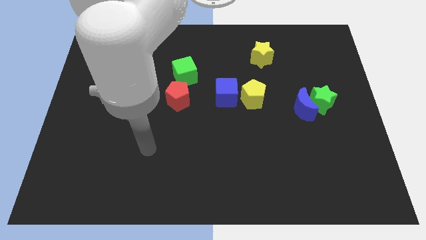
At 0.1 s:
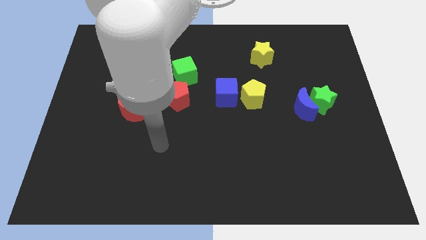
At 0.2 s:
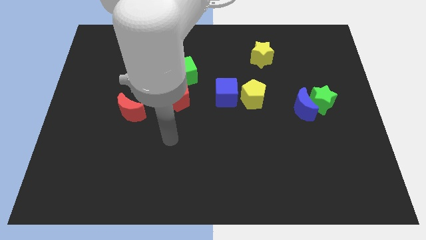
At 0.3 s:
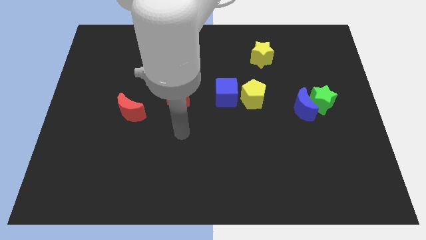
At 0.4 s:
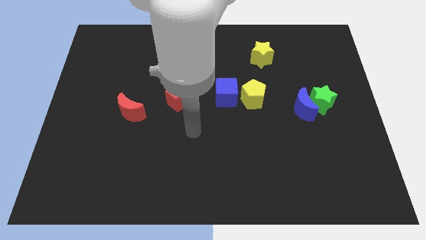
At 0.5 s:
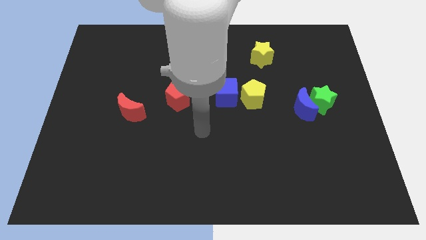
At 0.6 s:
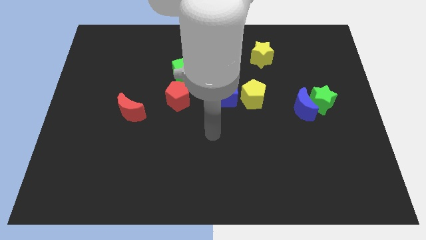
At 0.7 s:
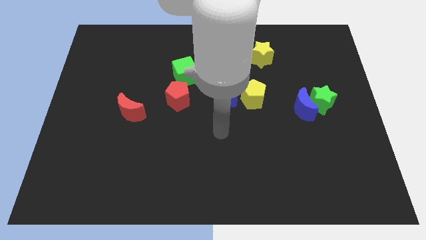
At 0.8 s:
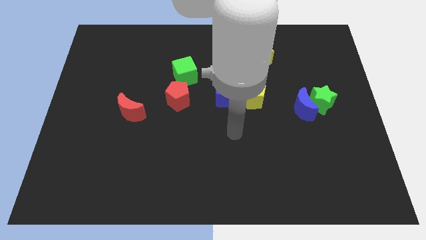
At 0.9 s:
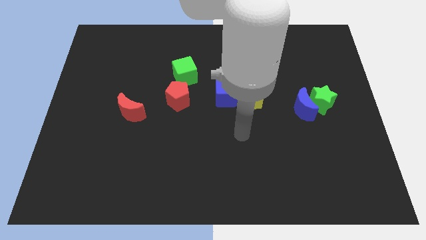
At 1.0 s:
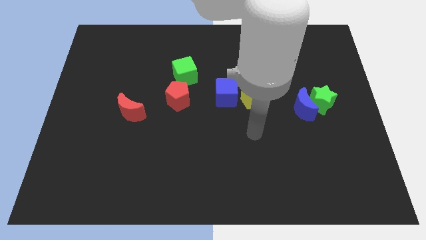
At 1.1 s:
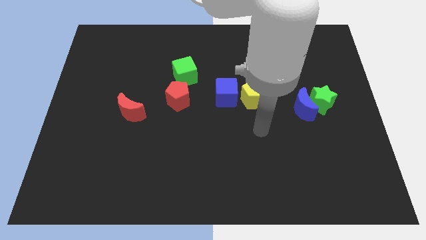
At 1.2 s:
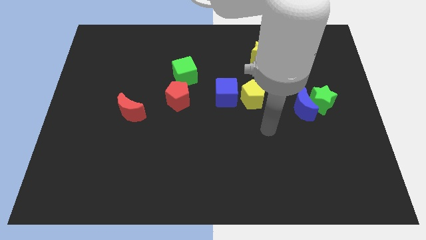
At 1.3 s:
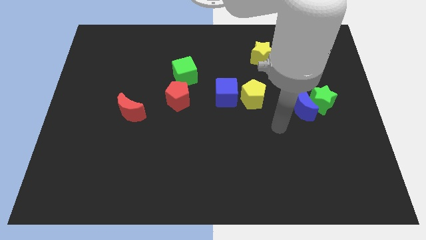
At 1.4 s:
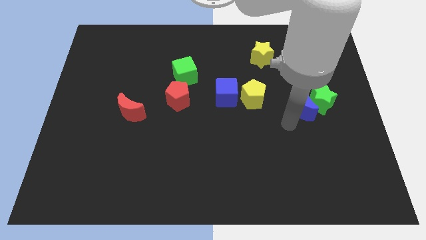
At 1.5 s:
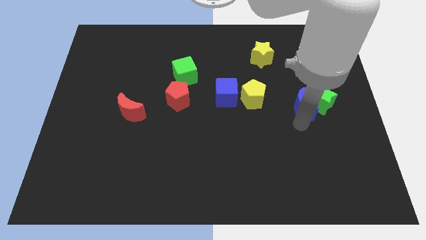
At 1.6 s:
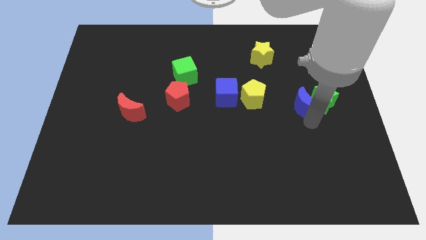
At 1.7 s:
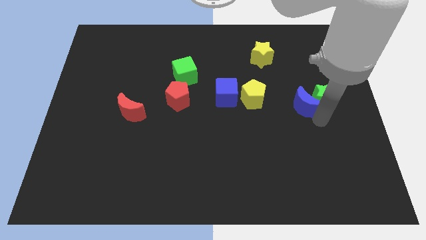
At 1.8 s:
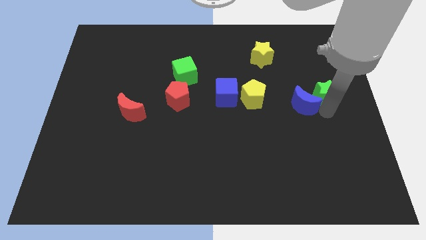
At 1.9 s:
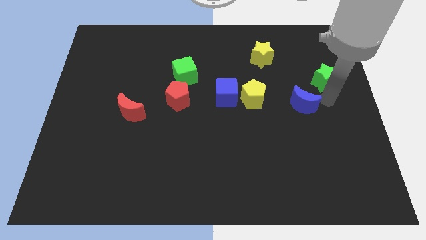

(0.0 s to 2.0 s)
move the blue moon away from the green star

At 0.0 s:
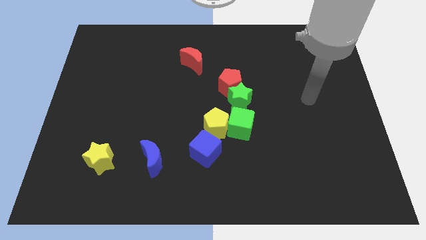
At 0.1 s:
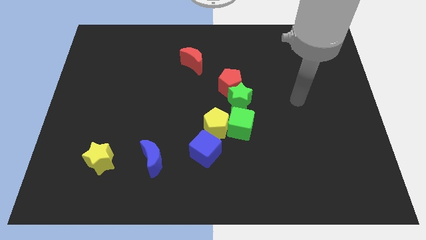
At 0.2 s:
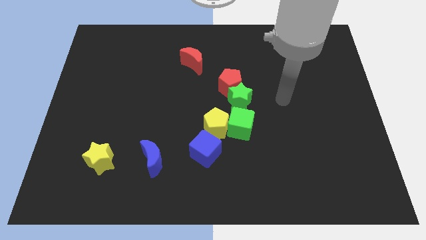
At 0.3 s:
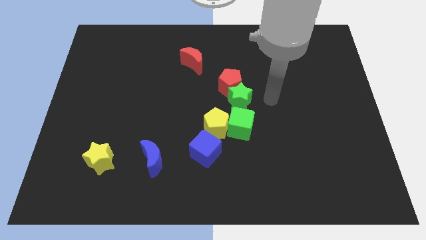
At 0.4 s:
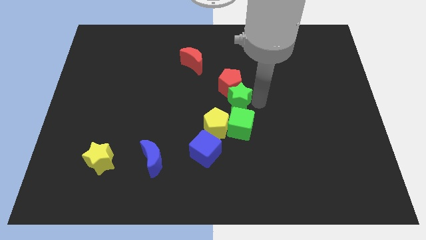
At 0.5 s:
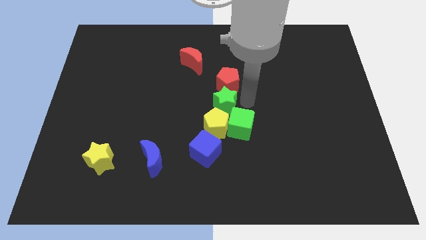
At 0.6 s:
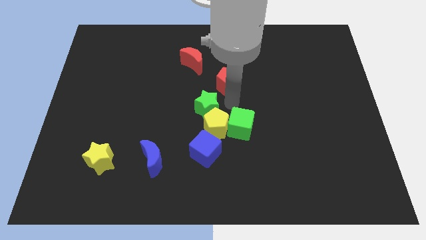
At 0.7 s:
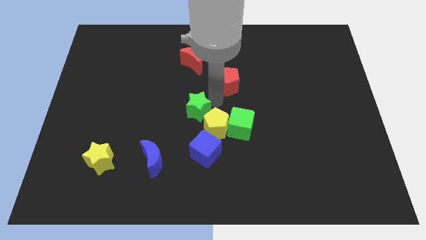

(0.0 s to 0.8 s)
separate the red pentagon from the green star

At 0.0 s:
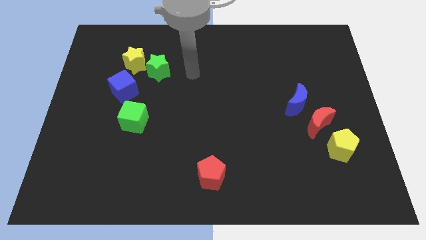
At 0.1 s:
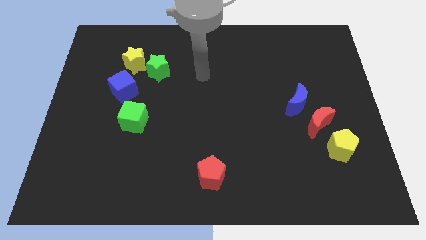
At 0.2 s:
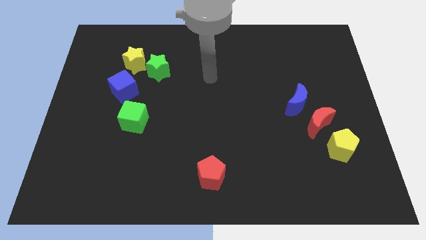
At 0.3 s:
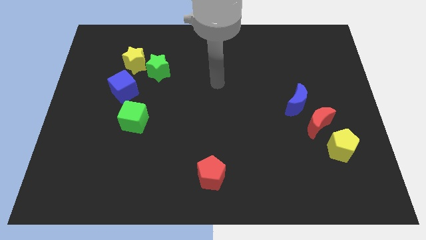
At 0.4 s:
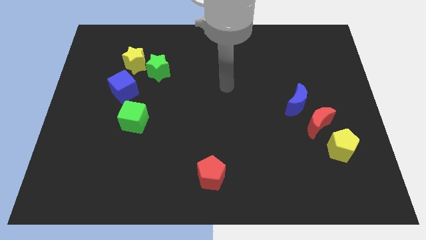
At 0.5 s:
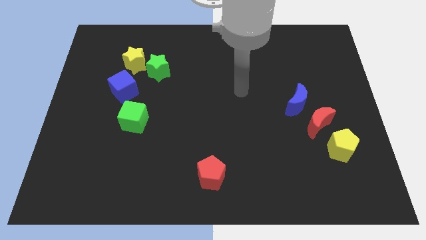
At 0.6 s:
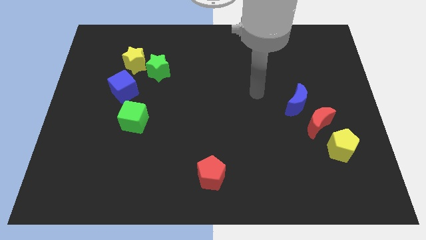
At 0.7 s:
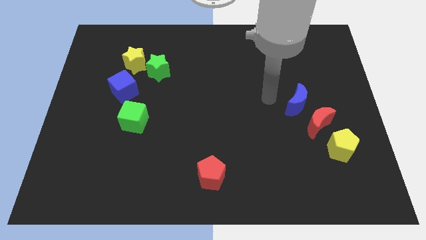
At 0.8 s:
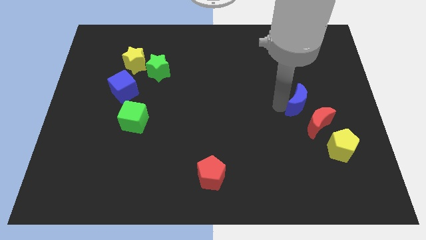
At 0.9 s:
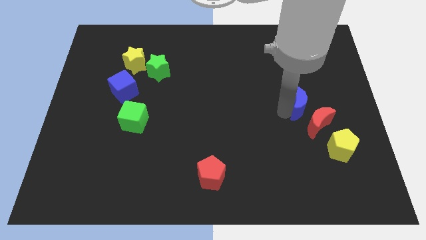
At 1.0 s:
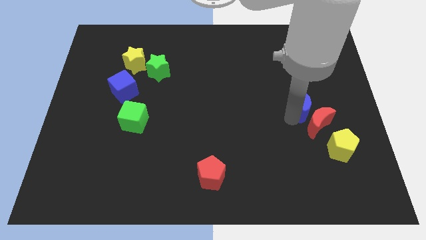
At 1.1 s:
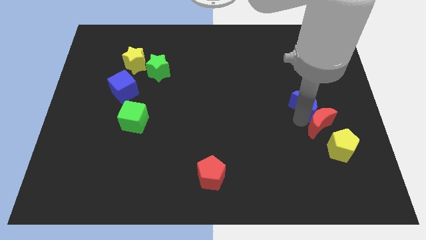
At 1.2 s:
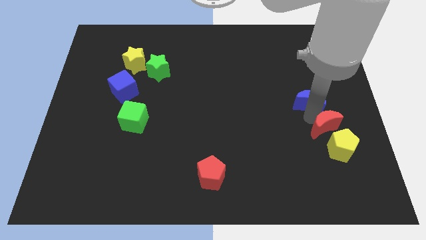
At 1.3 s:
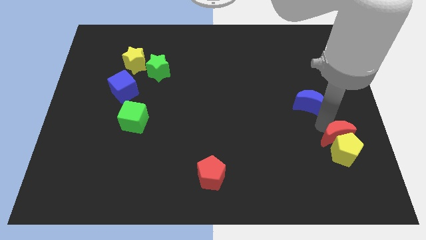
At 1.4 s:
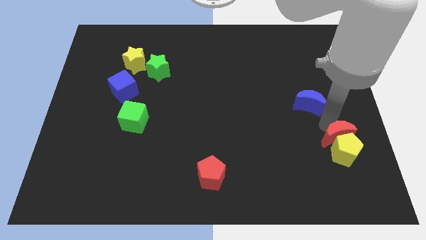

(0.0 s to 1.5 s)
separate the blue moon from the red moon

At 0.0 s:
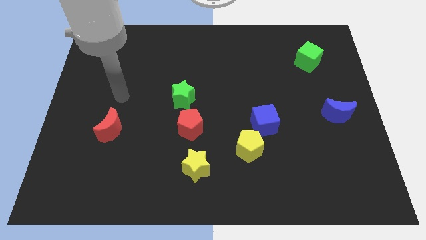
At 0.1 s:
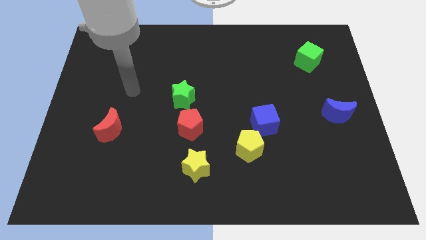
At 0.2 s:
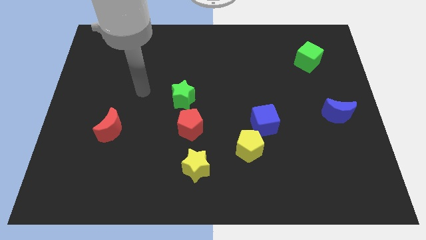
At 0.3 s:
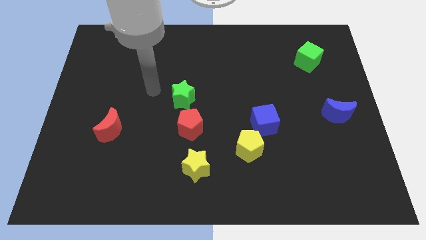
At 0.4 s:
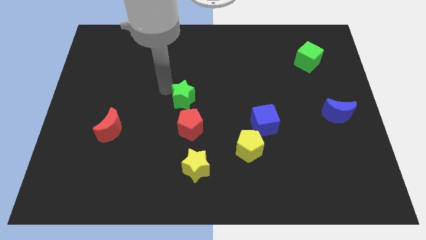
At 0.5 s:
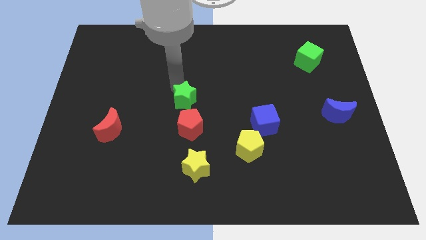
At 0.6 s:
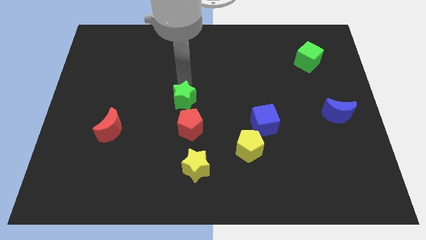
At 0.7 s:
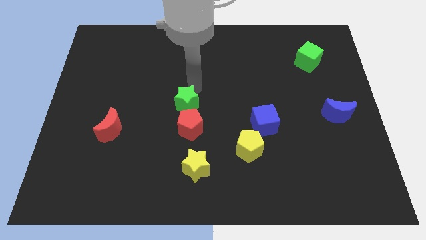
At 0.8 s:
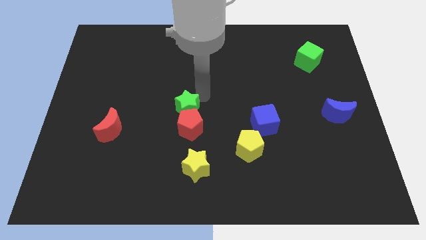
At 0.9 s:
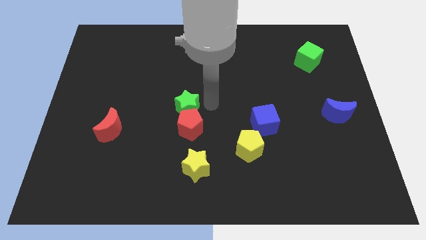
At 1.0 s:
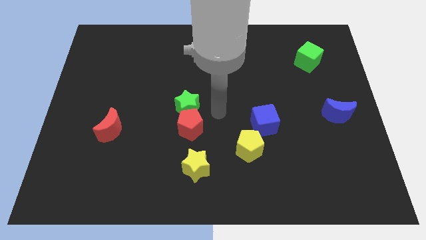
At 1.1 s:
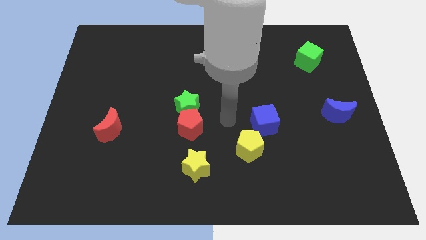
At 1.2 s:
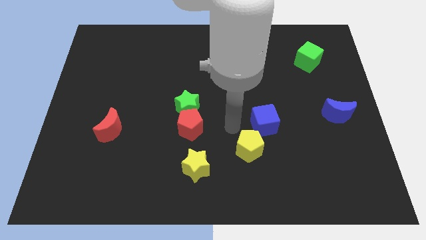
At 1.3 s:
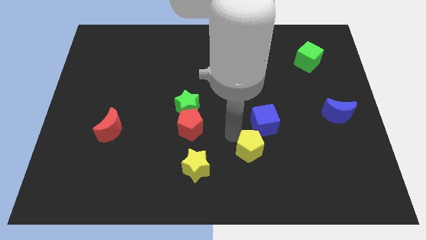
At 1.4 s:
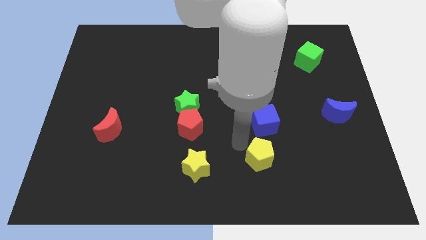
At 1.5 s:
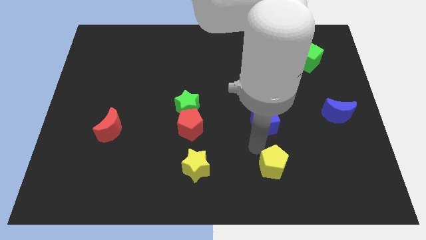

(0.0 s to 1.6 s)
separate the blue cube from the yellow pentagon

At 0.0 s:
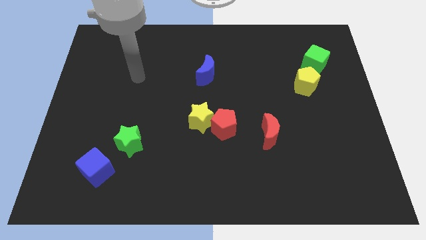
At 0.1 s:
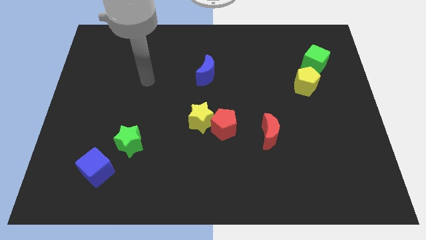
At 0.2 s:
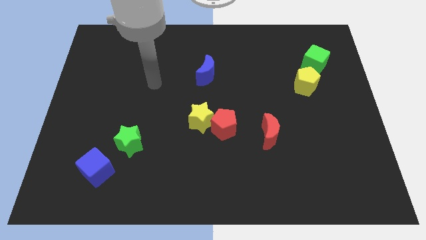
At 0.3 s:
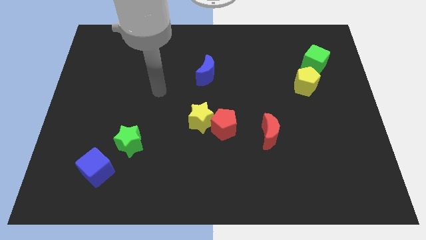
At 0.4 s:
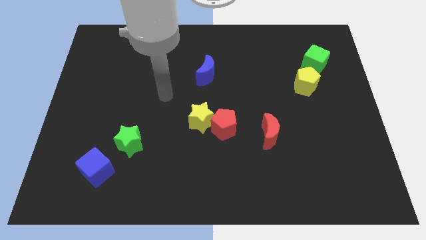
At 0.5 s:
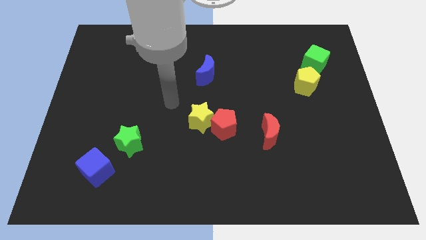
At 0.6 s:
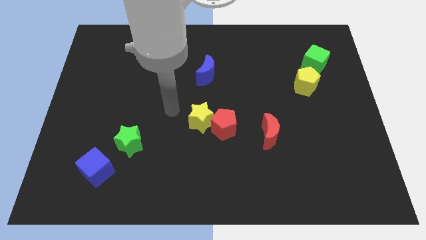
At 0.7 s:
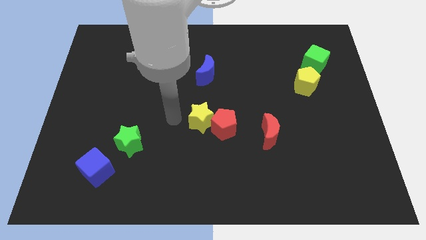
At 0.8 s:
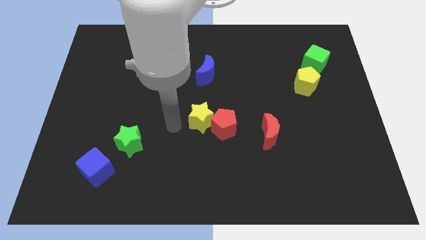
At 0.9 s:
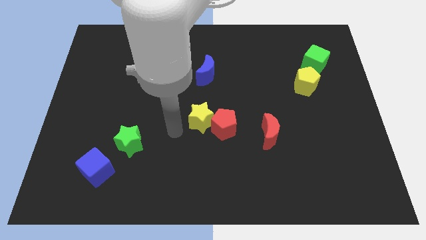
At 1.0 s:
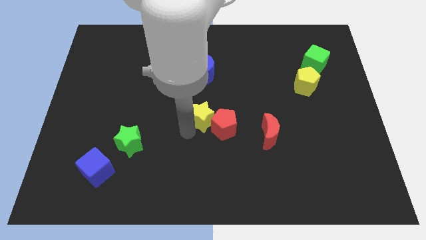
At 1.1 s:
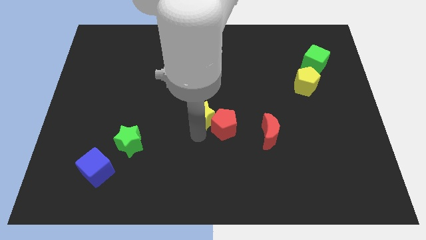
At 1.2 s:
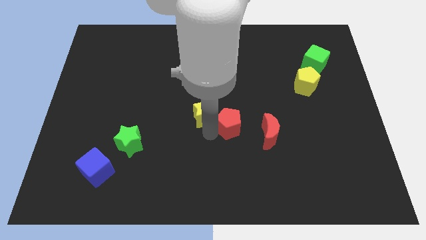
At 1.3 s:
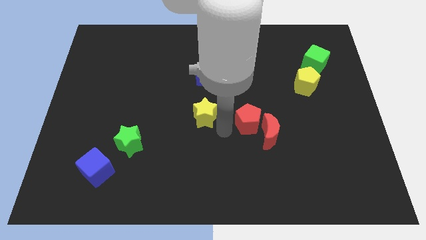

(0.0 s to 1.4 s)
move the yellow star away from the red pentagon

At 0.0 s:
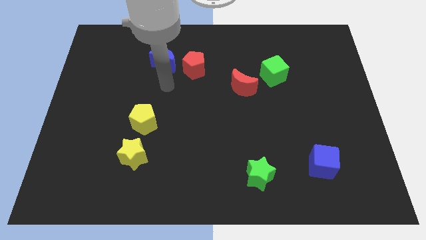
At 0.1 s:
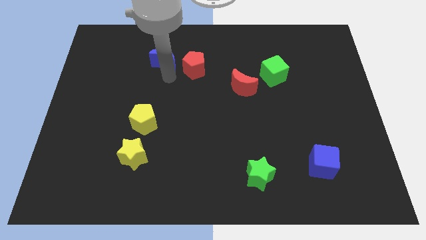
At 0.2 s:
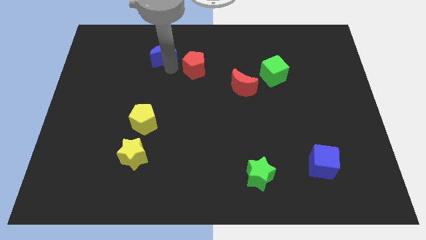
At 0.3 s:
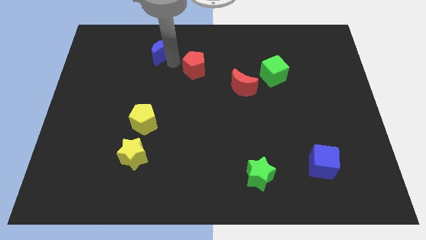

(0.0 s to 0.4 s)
move the red pentagon away from the blue moon

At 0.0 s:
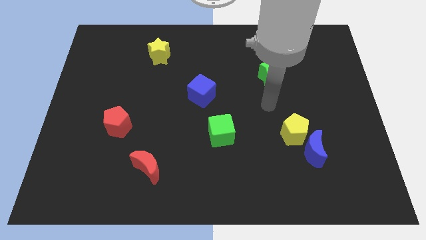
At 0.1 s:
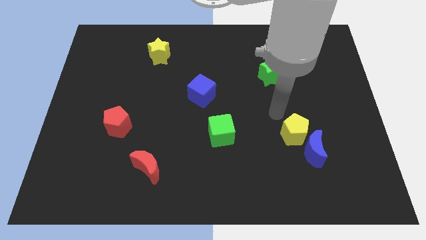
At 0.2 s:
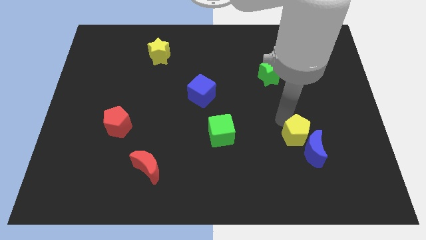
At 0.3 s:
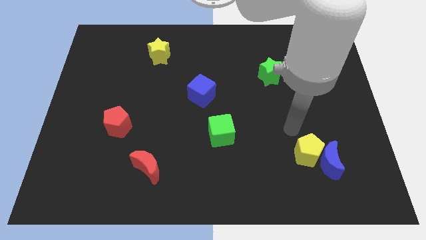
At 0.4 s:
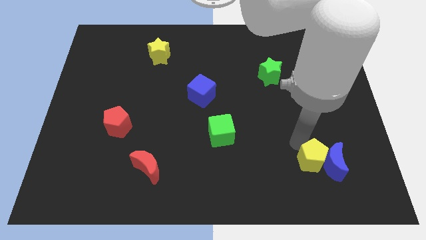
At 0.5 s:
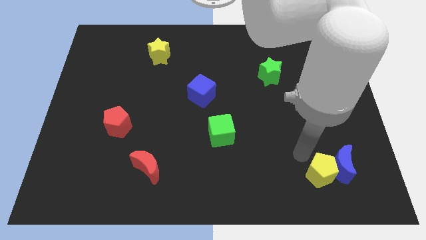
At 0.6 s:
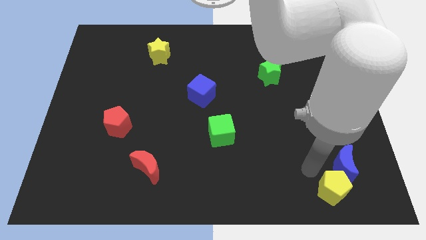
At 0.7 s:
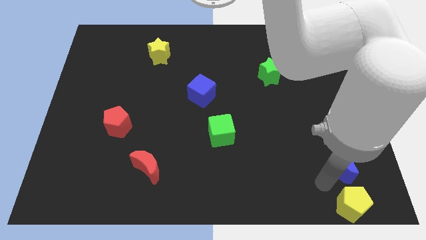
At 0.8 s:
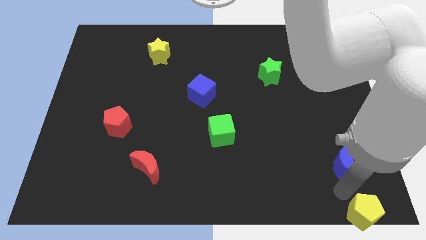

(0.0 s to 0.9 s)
move the blue moon away from the yellow pentagon

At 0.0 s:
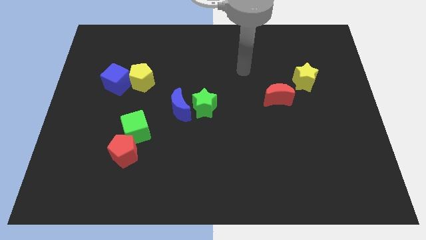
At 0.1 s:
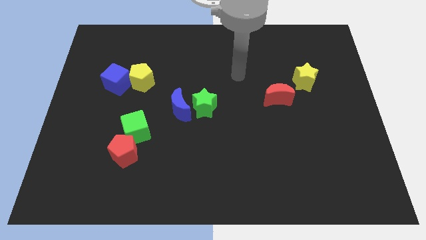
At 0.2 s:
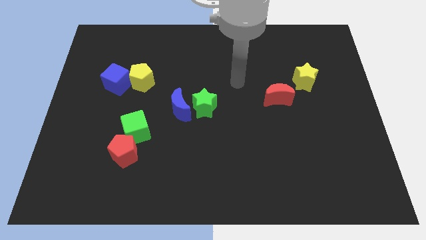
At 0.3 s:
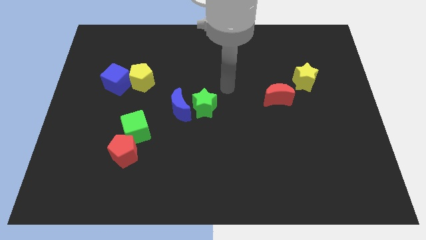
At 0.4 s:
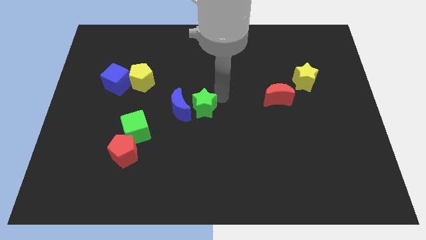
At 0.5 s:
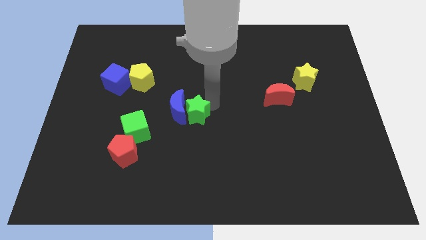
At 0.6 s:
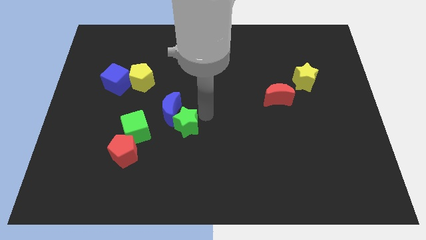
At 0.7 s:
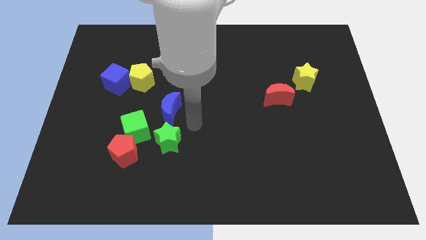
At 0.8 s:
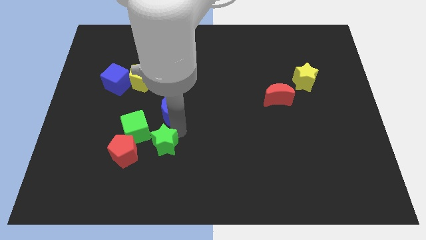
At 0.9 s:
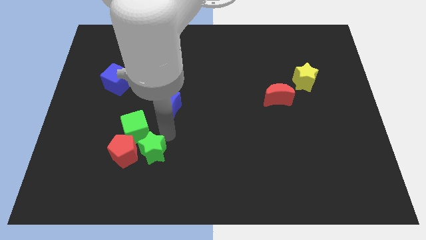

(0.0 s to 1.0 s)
pull the blue moon apart from the green star
